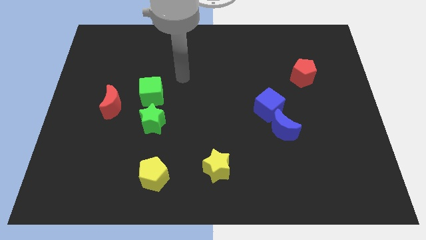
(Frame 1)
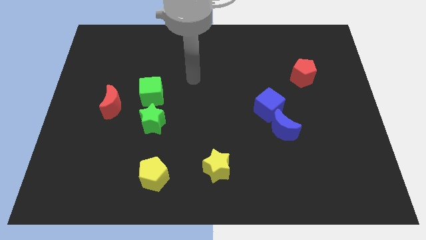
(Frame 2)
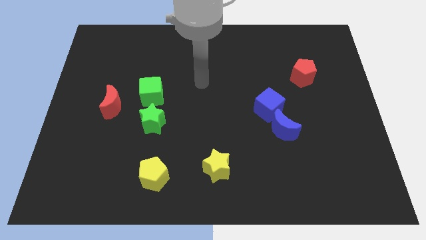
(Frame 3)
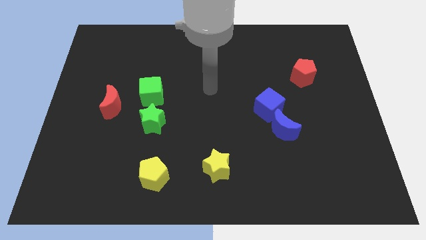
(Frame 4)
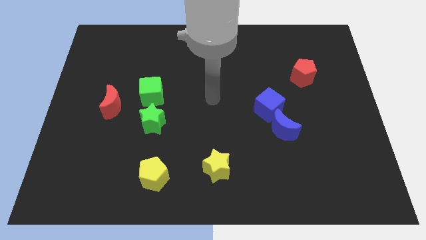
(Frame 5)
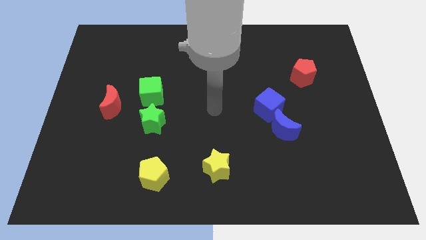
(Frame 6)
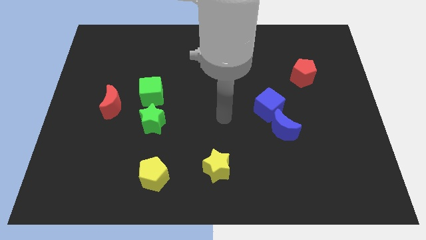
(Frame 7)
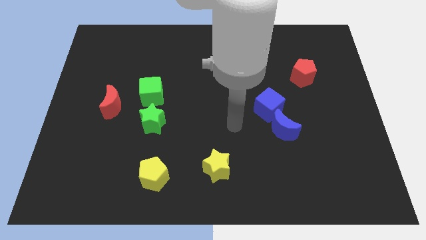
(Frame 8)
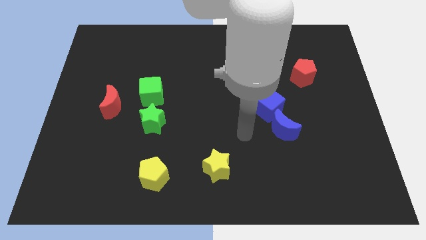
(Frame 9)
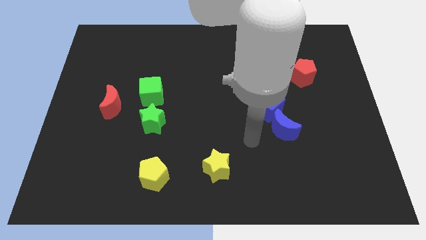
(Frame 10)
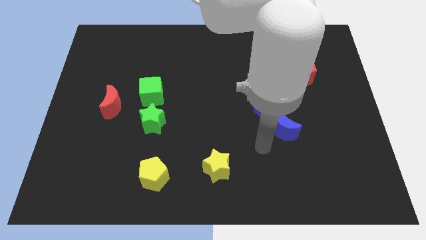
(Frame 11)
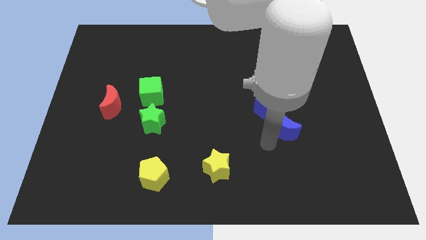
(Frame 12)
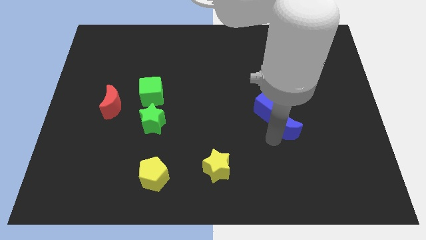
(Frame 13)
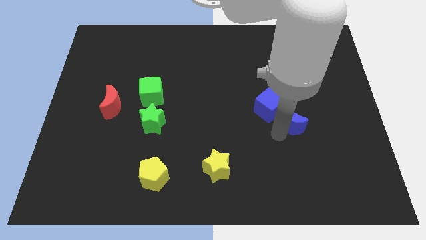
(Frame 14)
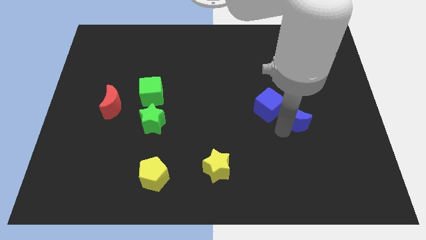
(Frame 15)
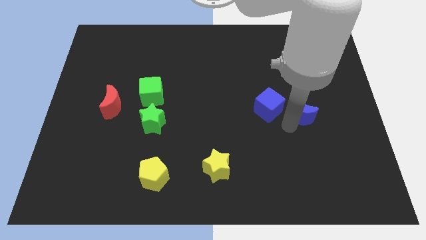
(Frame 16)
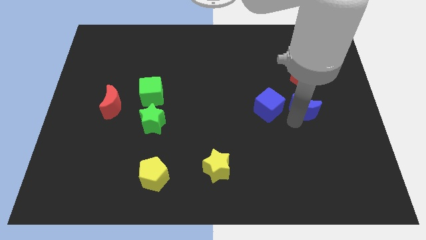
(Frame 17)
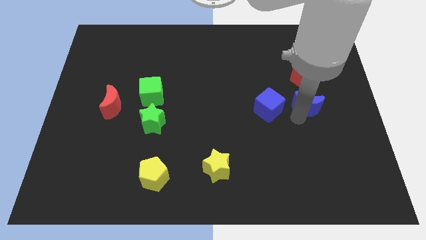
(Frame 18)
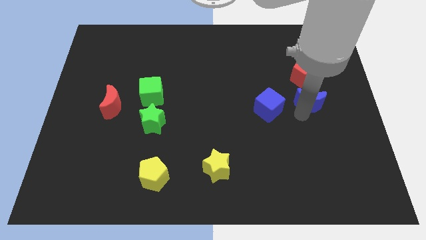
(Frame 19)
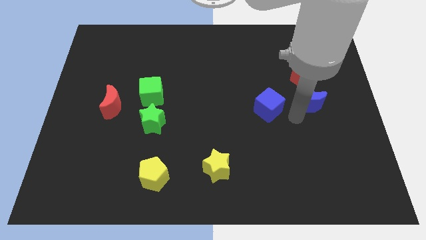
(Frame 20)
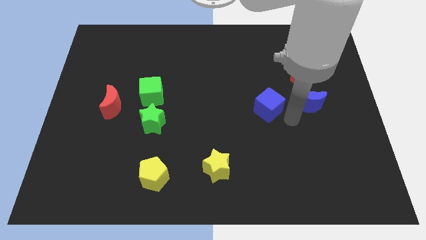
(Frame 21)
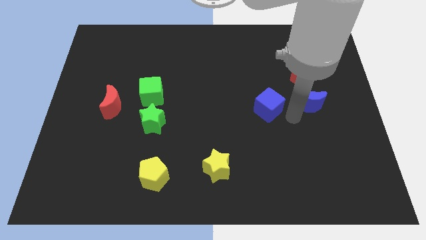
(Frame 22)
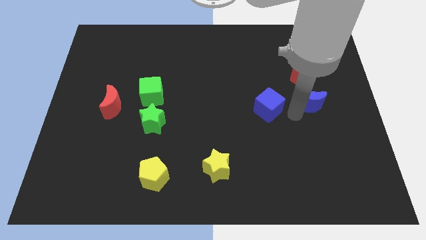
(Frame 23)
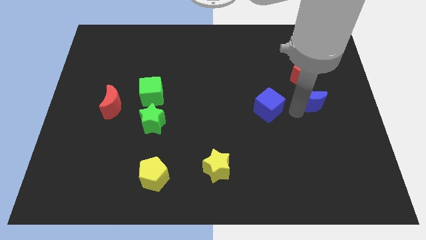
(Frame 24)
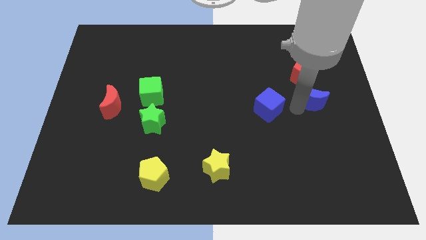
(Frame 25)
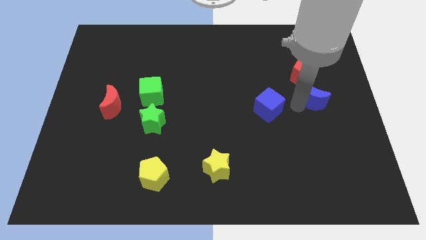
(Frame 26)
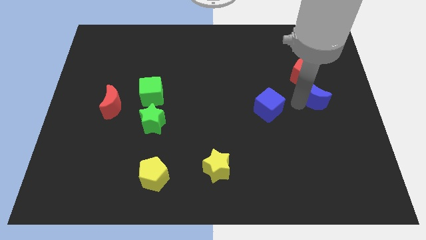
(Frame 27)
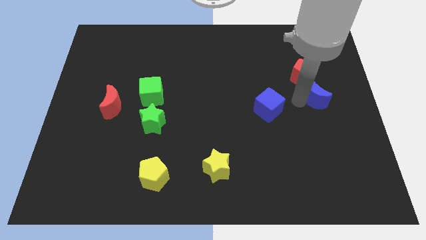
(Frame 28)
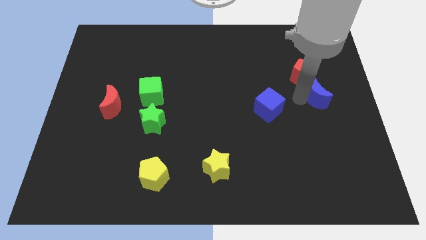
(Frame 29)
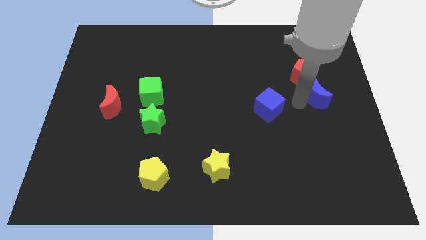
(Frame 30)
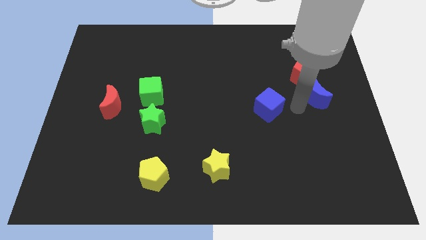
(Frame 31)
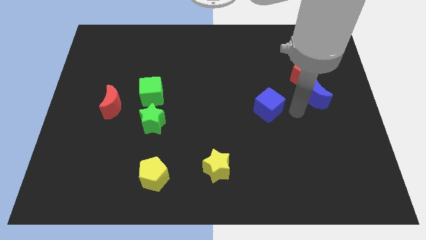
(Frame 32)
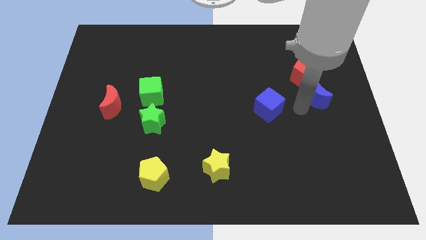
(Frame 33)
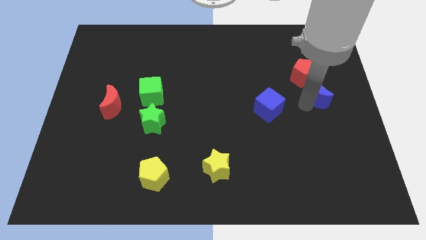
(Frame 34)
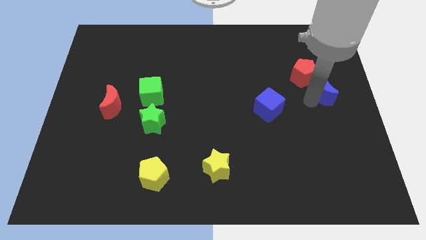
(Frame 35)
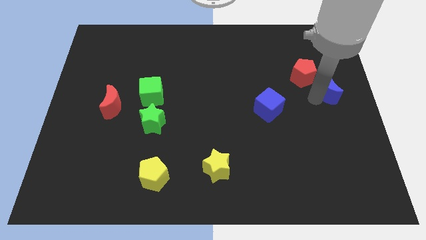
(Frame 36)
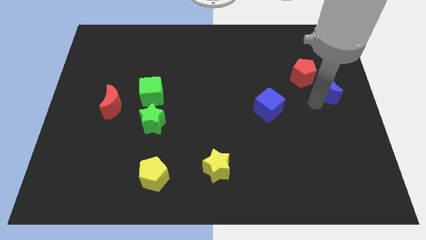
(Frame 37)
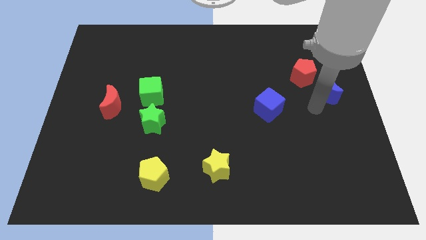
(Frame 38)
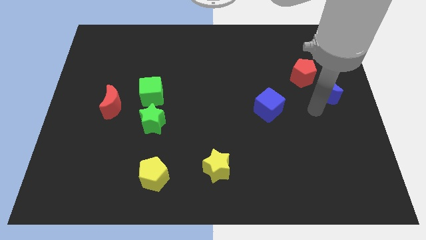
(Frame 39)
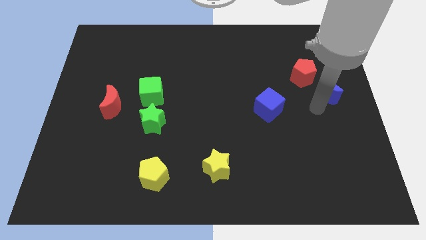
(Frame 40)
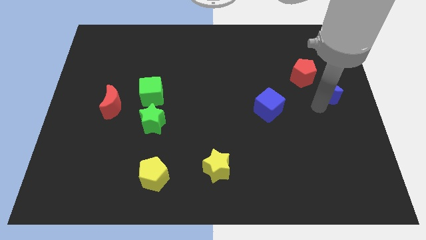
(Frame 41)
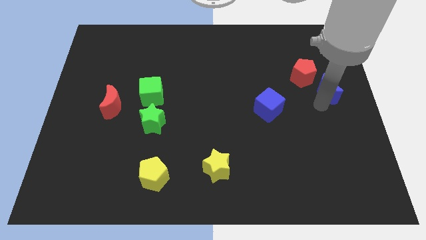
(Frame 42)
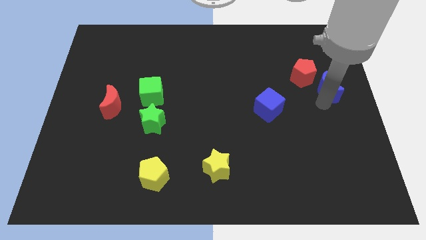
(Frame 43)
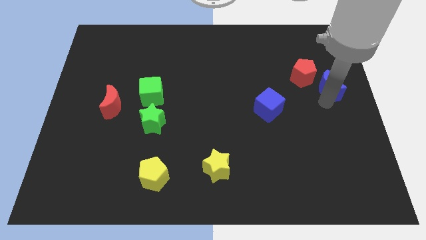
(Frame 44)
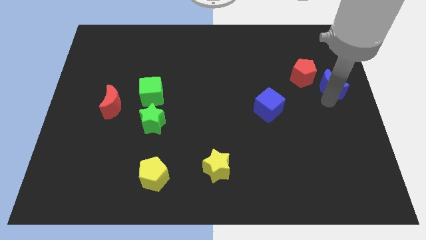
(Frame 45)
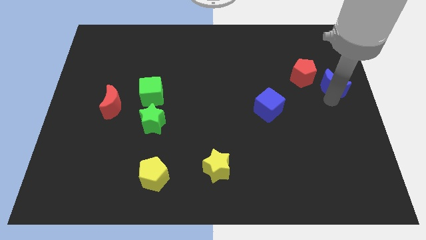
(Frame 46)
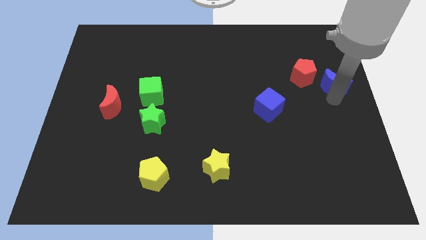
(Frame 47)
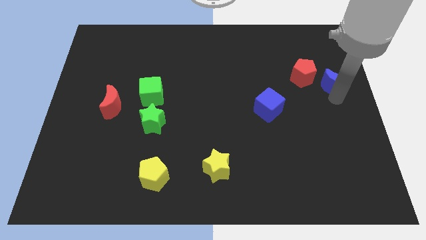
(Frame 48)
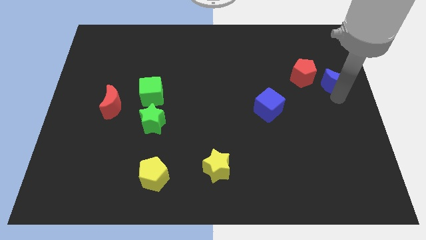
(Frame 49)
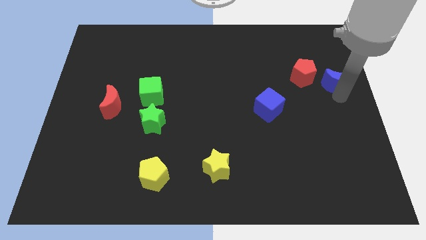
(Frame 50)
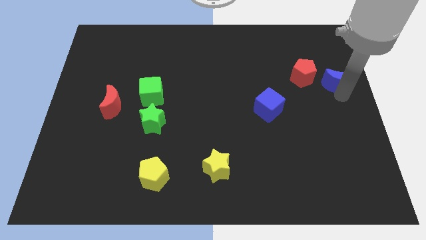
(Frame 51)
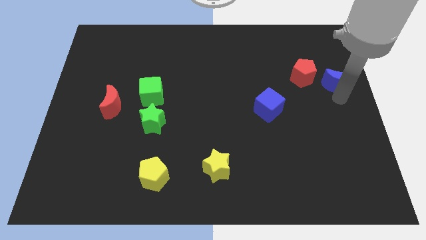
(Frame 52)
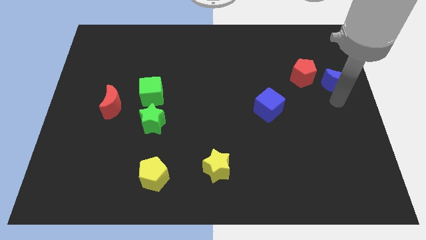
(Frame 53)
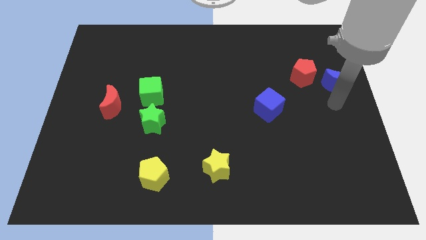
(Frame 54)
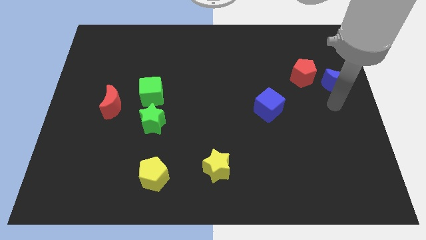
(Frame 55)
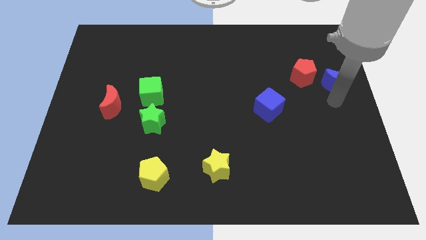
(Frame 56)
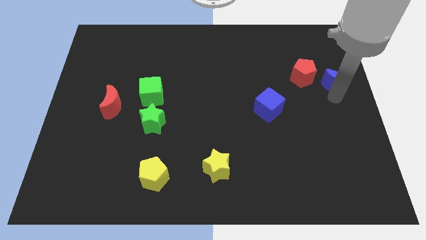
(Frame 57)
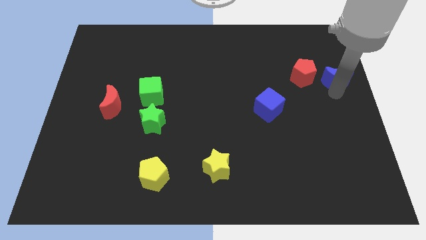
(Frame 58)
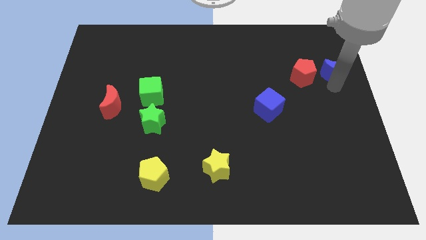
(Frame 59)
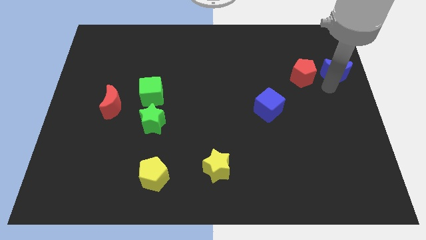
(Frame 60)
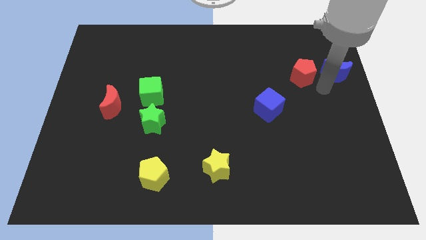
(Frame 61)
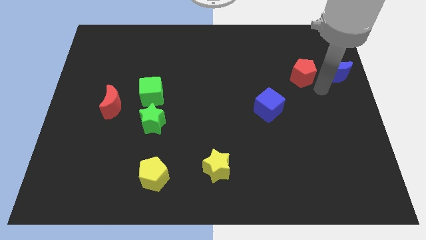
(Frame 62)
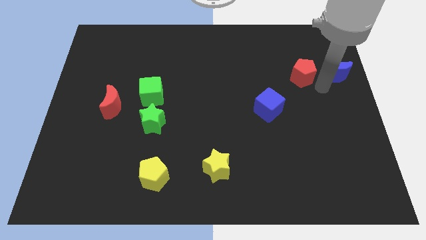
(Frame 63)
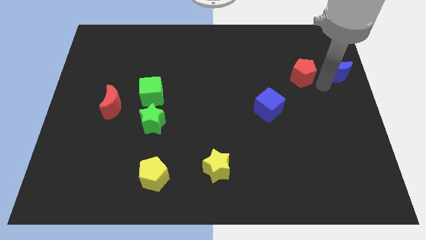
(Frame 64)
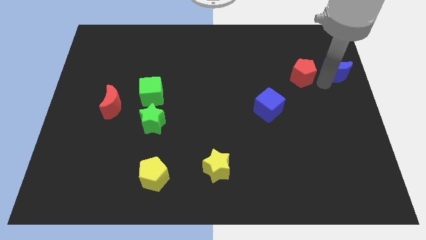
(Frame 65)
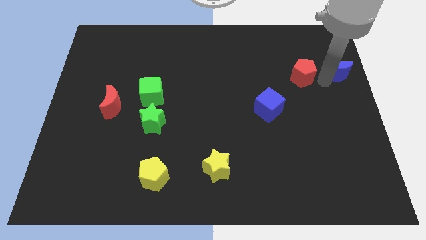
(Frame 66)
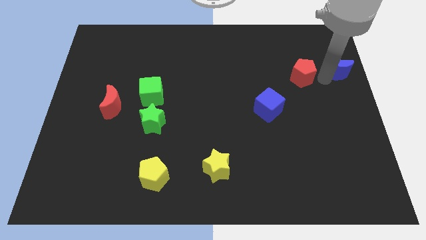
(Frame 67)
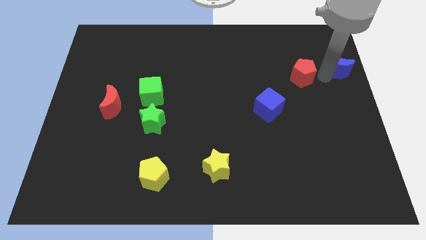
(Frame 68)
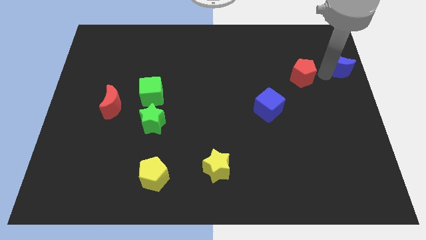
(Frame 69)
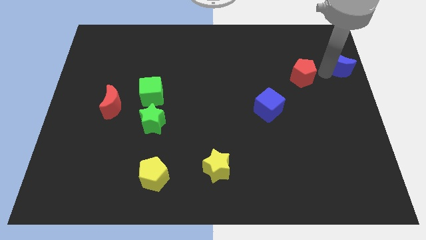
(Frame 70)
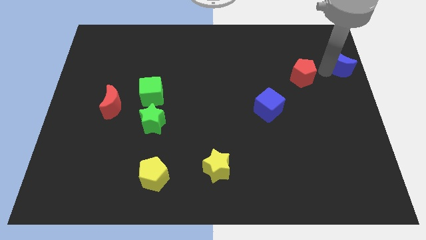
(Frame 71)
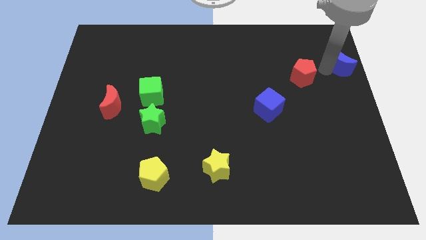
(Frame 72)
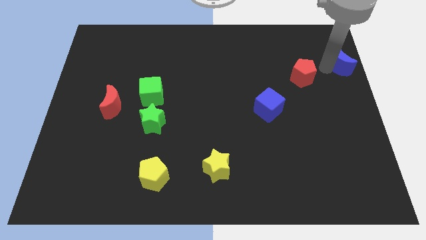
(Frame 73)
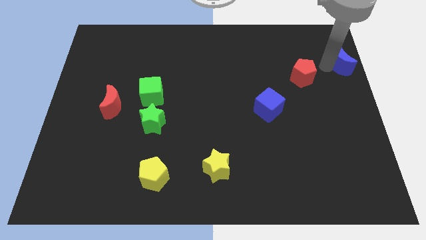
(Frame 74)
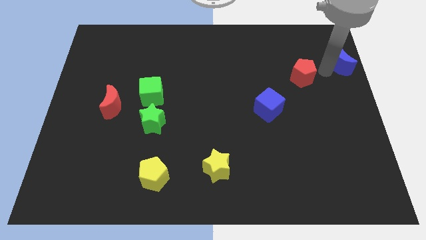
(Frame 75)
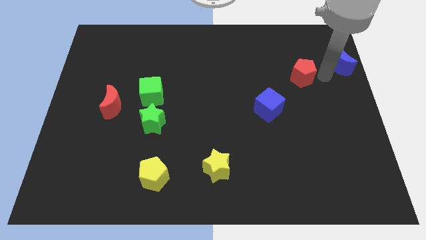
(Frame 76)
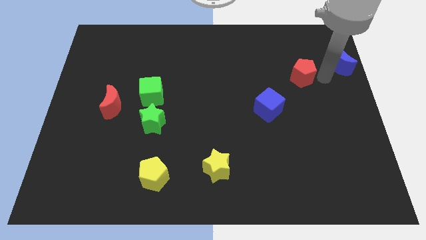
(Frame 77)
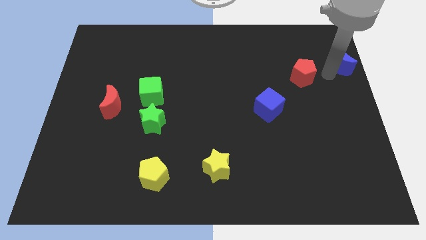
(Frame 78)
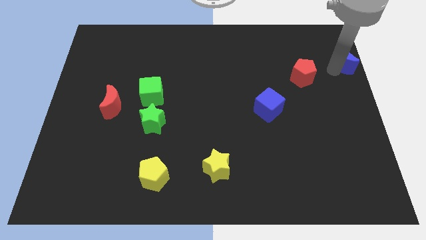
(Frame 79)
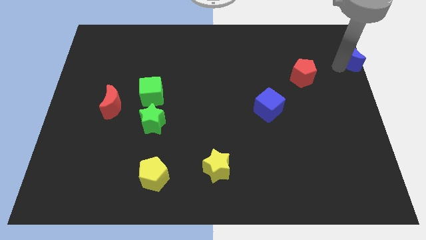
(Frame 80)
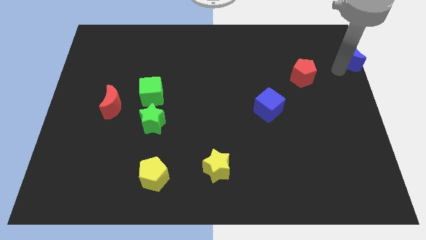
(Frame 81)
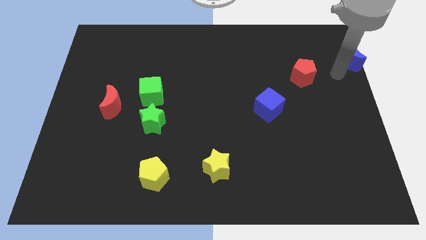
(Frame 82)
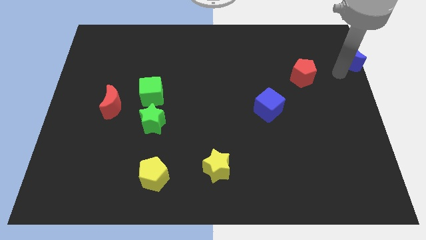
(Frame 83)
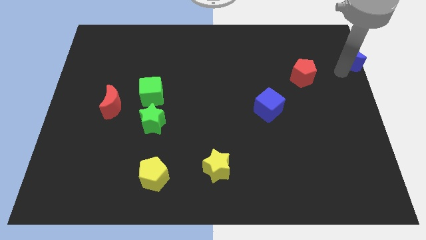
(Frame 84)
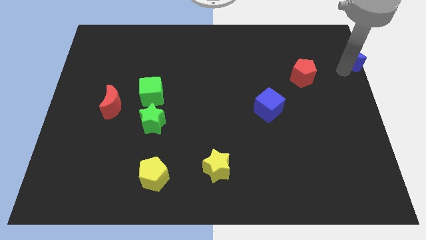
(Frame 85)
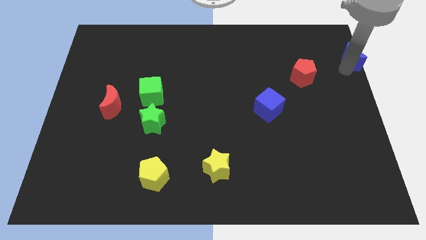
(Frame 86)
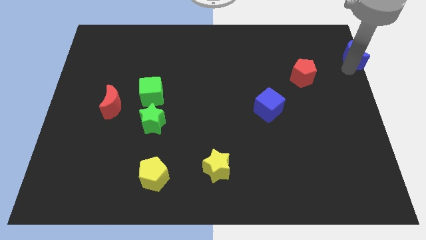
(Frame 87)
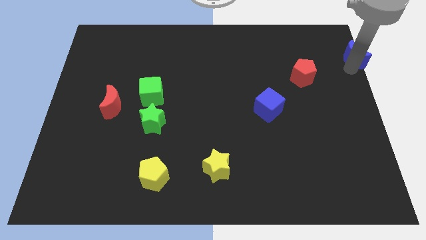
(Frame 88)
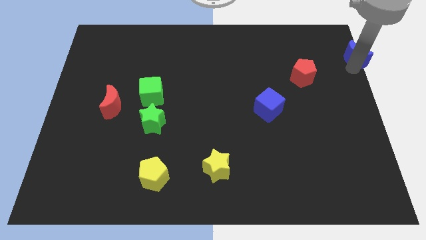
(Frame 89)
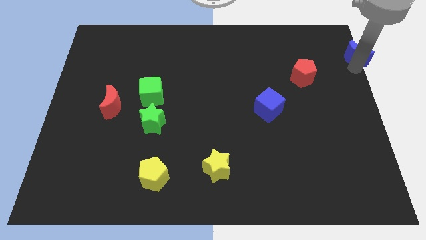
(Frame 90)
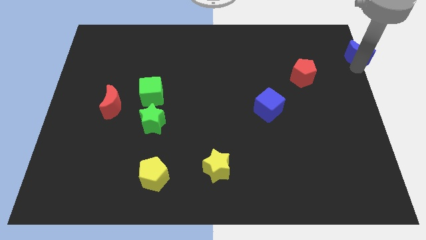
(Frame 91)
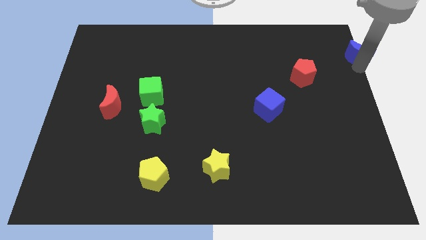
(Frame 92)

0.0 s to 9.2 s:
move the blue moon to the top right
